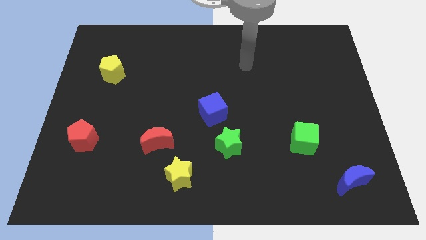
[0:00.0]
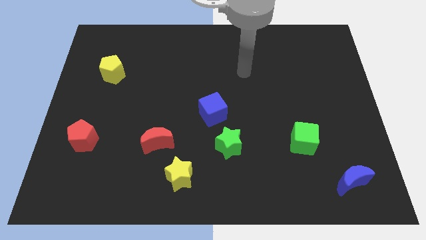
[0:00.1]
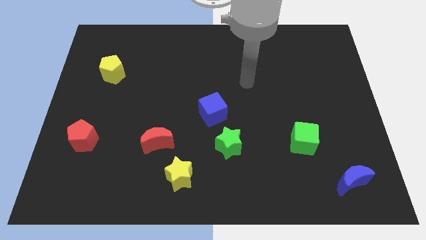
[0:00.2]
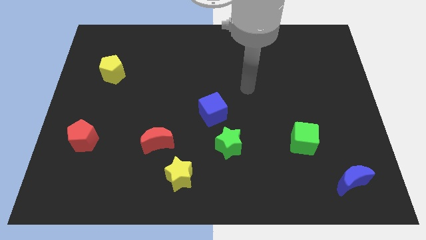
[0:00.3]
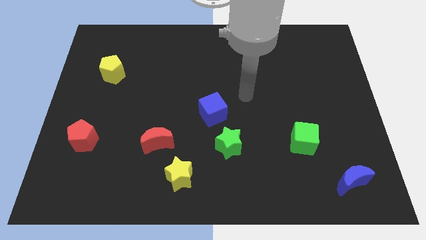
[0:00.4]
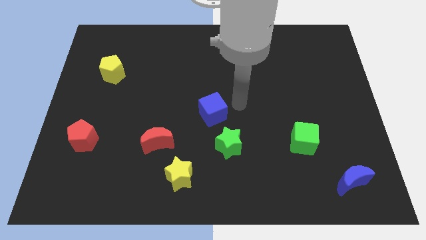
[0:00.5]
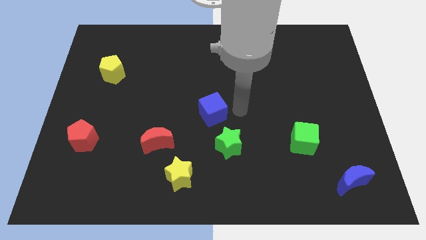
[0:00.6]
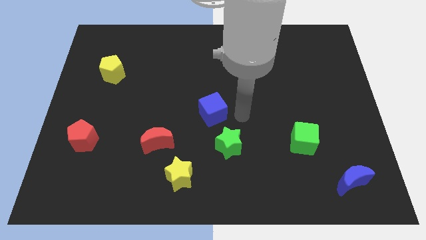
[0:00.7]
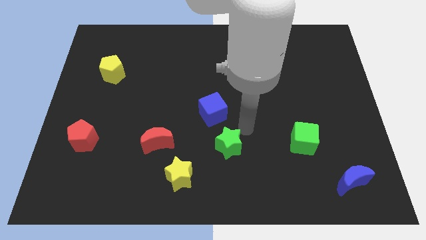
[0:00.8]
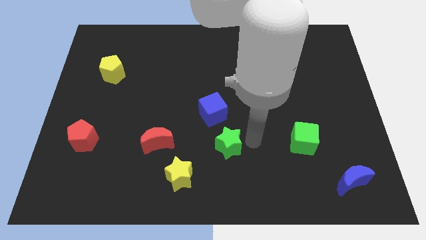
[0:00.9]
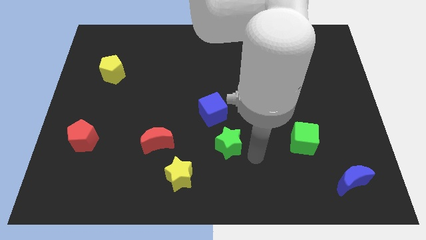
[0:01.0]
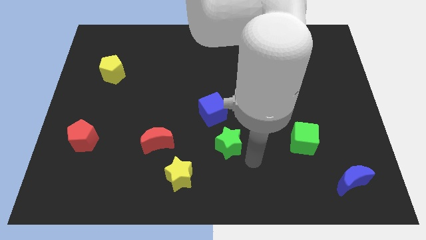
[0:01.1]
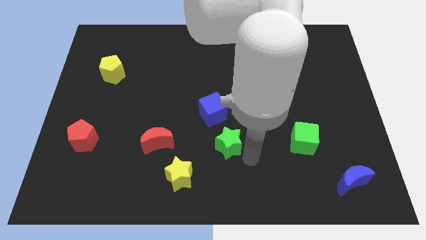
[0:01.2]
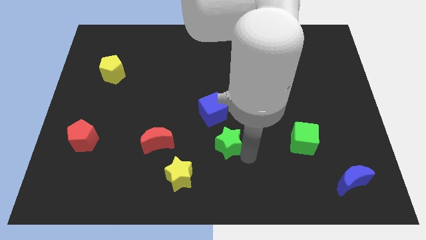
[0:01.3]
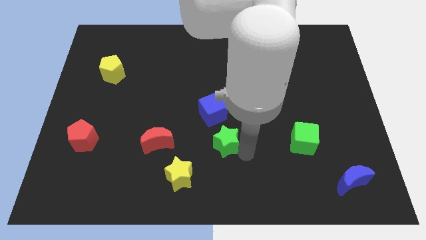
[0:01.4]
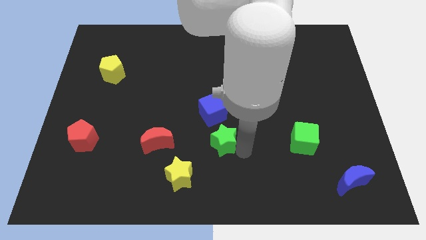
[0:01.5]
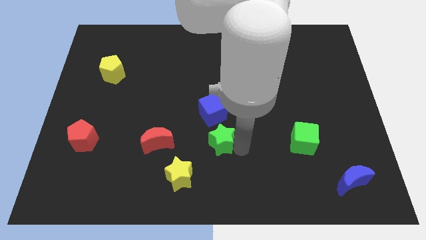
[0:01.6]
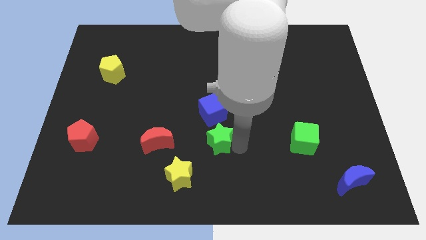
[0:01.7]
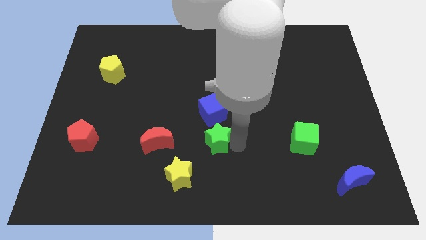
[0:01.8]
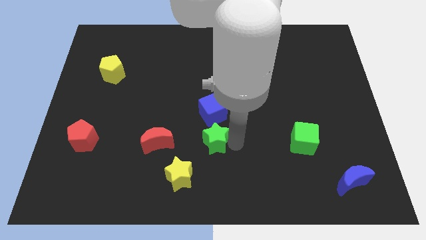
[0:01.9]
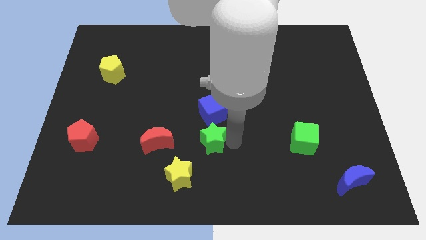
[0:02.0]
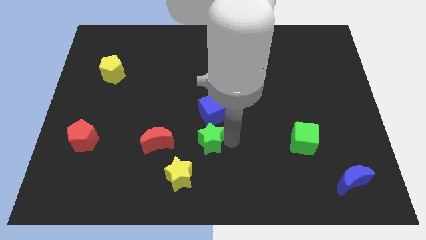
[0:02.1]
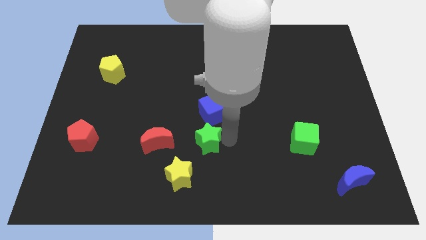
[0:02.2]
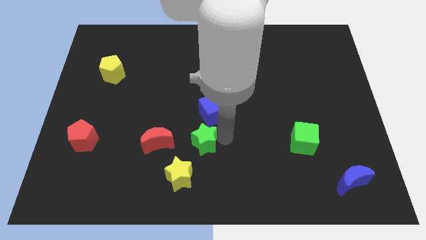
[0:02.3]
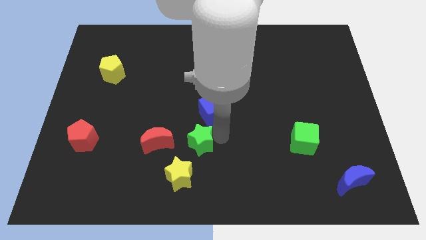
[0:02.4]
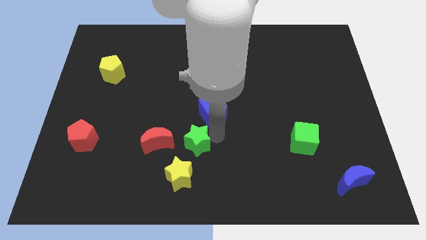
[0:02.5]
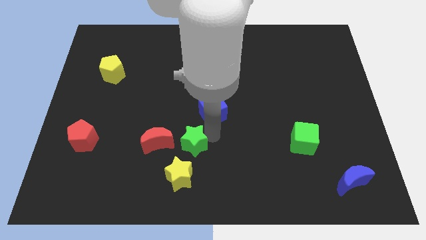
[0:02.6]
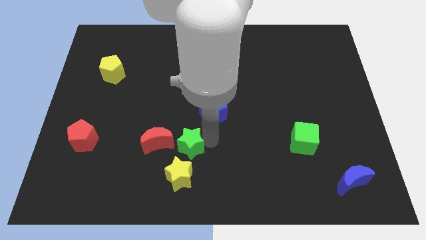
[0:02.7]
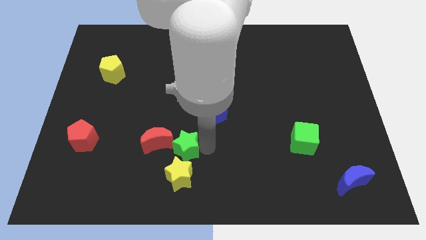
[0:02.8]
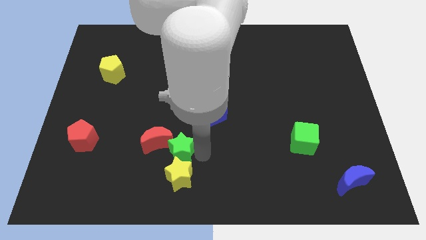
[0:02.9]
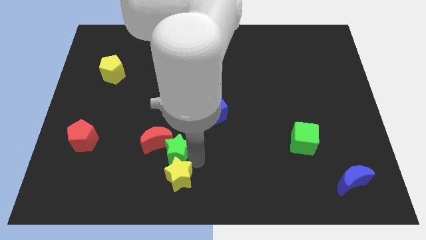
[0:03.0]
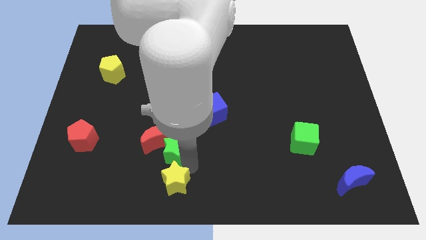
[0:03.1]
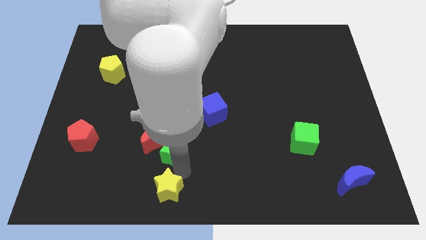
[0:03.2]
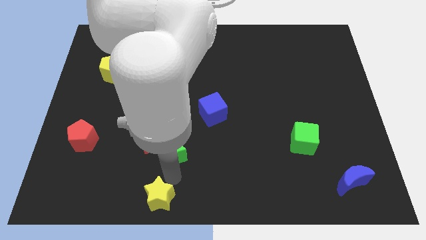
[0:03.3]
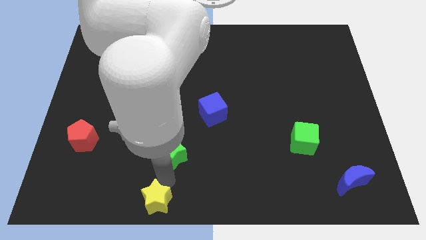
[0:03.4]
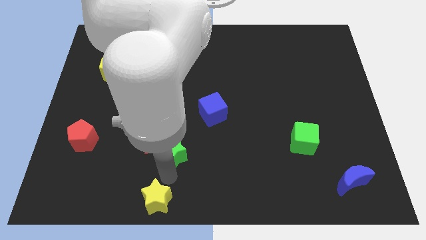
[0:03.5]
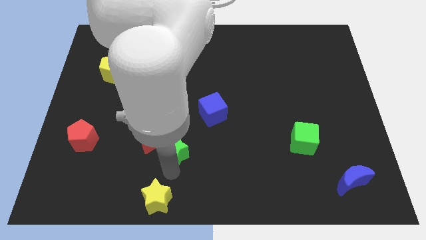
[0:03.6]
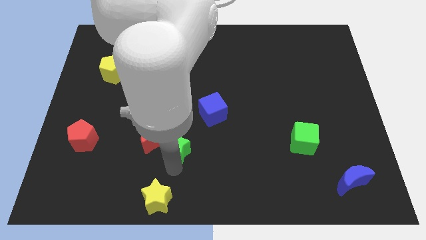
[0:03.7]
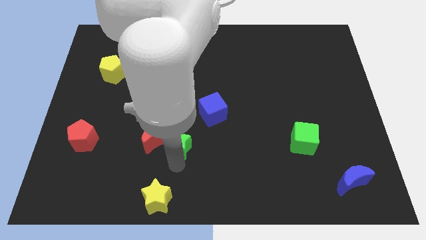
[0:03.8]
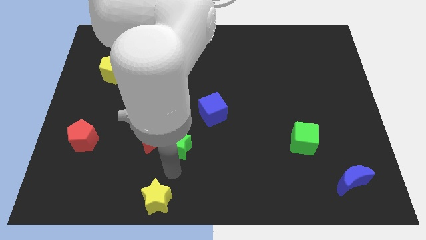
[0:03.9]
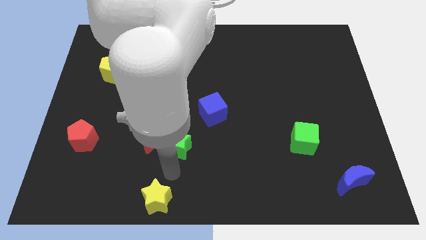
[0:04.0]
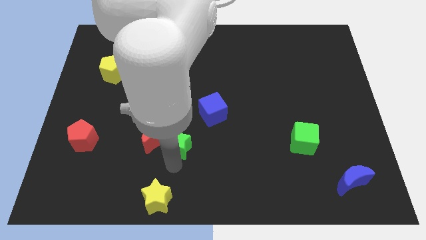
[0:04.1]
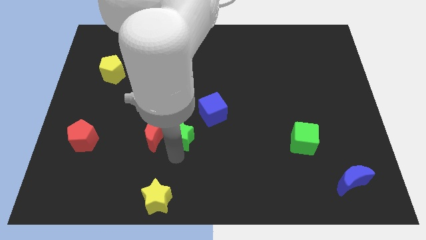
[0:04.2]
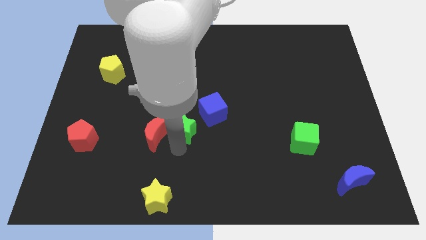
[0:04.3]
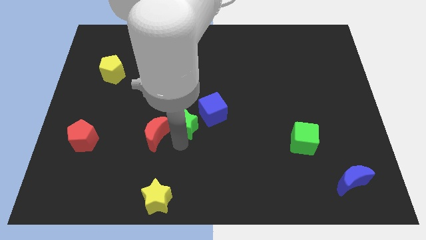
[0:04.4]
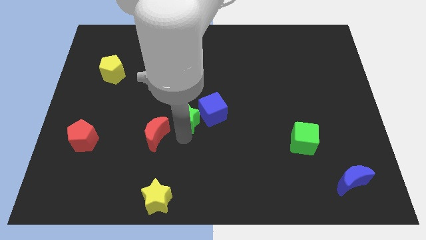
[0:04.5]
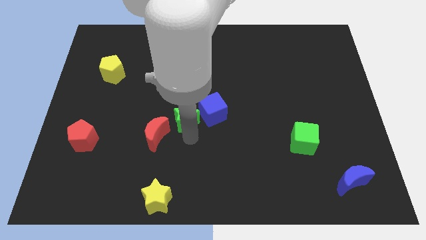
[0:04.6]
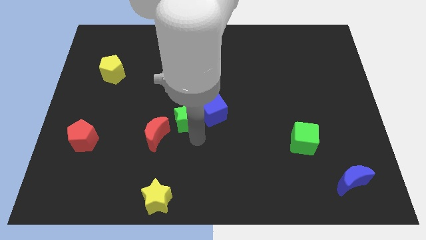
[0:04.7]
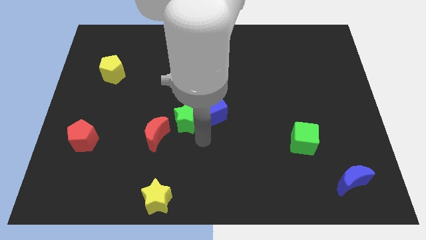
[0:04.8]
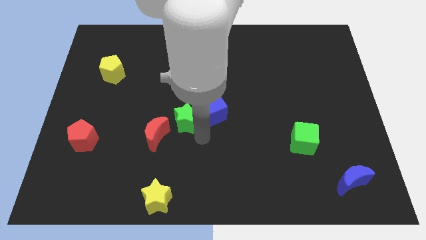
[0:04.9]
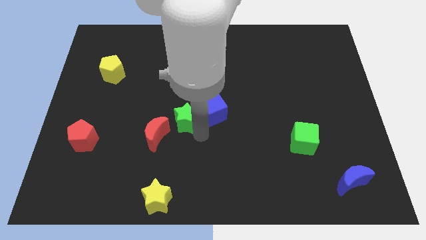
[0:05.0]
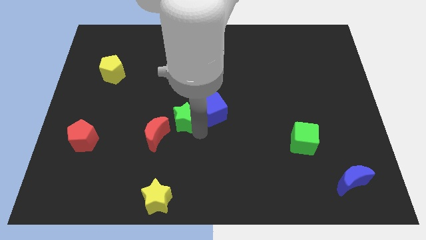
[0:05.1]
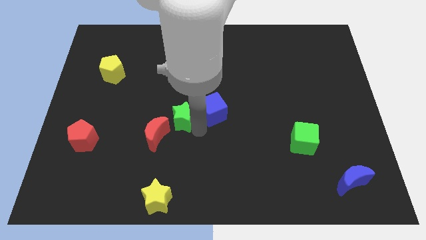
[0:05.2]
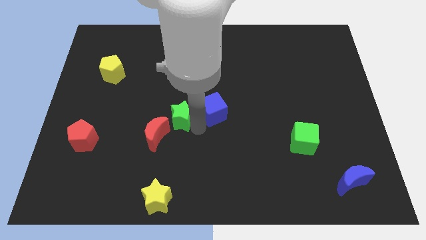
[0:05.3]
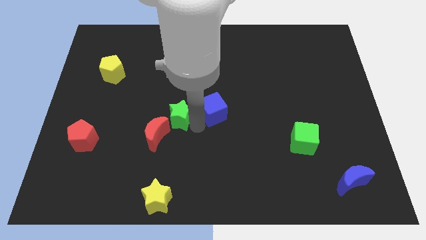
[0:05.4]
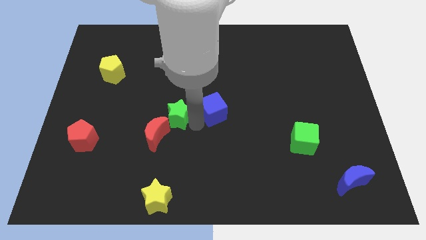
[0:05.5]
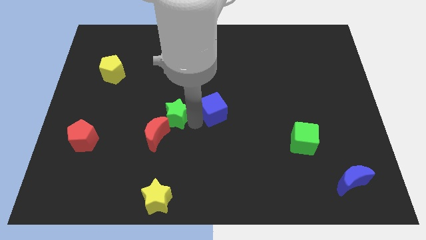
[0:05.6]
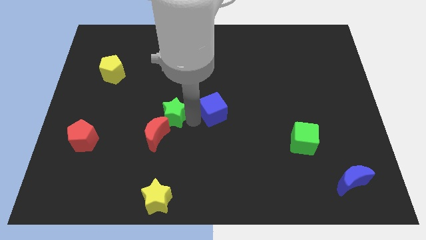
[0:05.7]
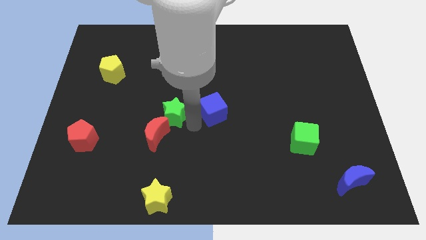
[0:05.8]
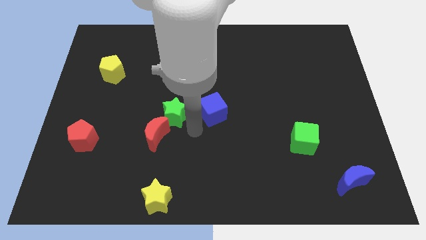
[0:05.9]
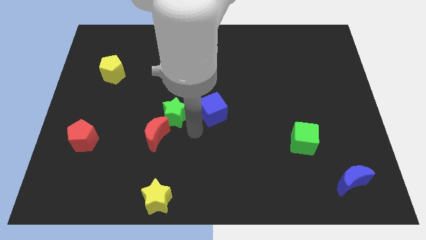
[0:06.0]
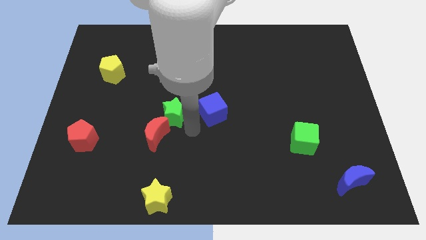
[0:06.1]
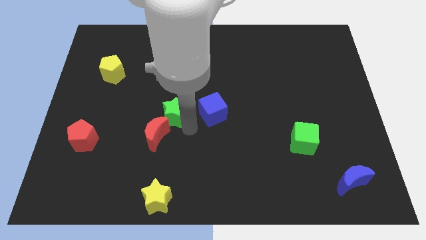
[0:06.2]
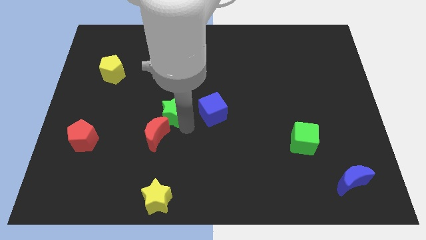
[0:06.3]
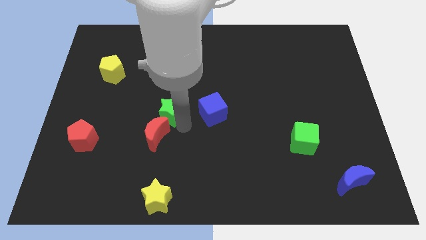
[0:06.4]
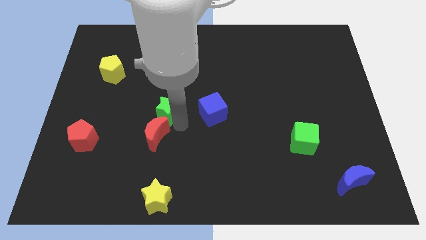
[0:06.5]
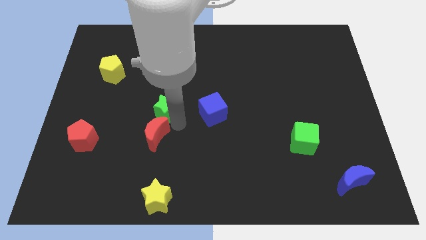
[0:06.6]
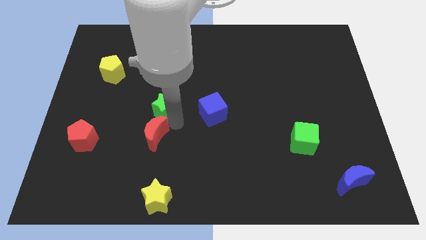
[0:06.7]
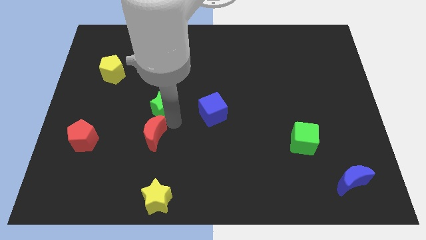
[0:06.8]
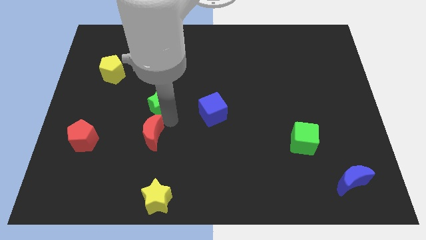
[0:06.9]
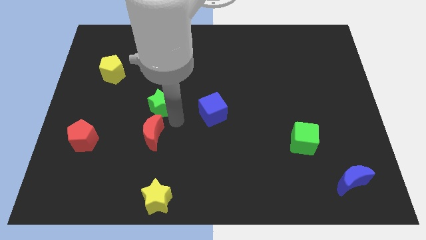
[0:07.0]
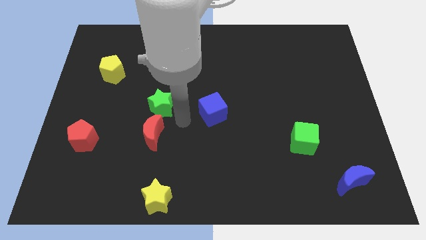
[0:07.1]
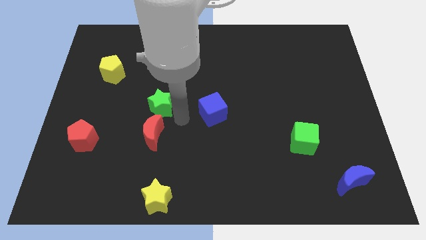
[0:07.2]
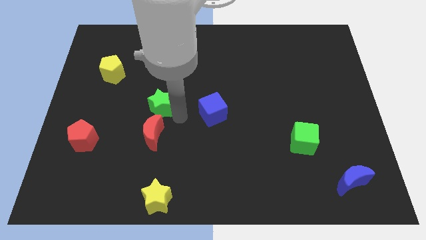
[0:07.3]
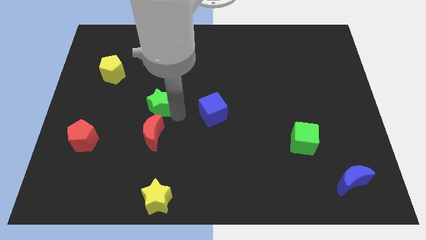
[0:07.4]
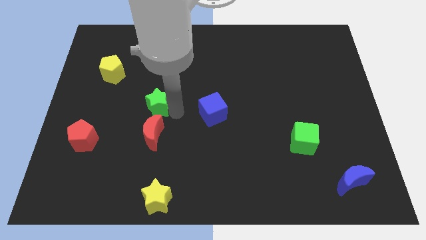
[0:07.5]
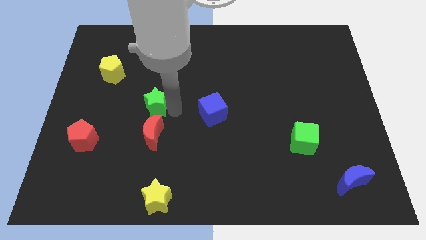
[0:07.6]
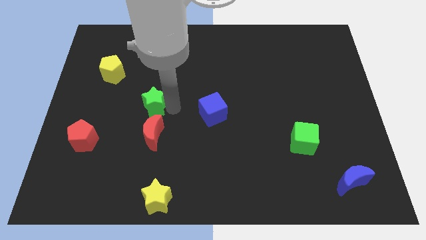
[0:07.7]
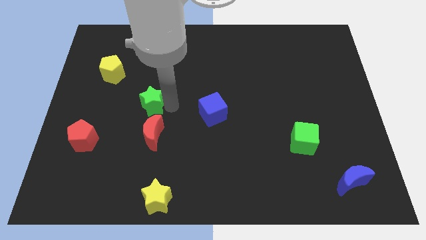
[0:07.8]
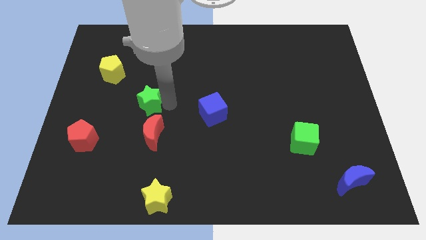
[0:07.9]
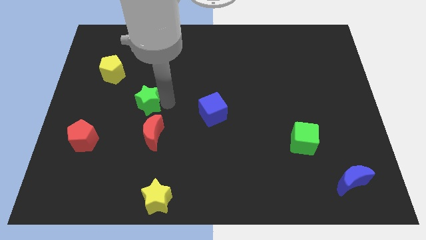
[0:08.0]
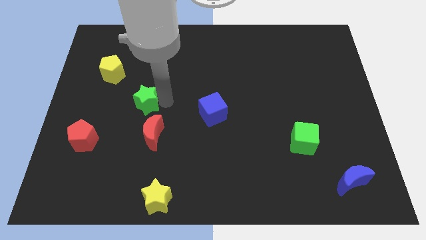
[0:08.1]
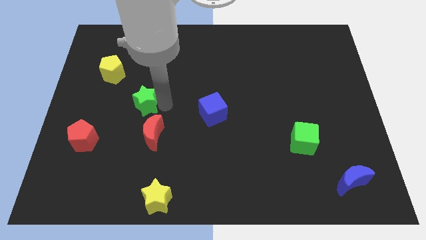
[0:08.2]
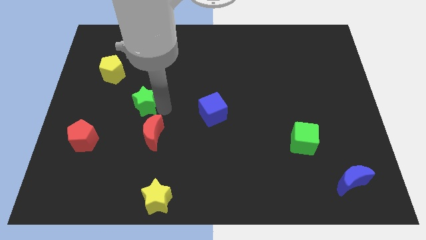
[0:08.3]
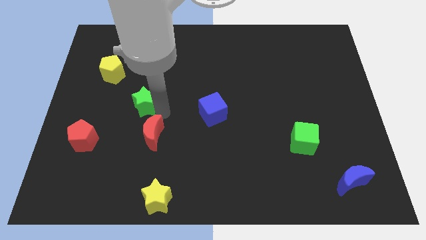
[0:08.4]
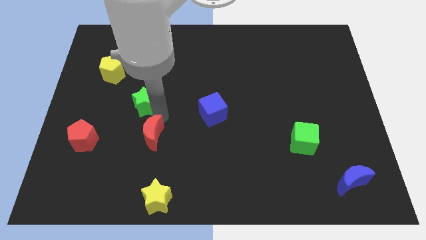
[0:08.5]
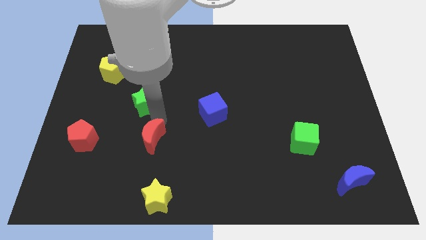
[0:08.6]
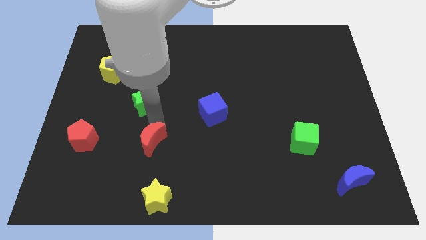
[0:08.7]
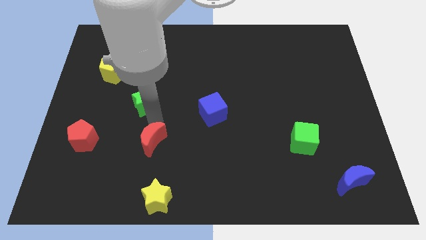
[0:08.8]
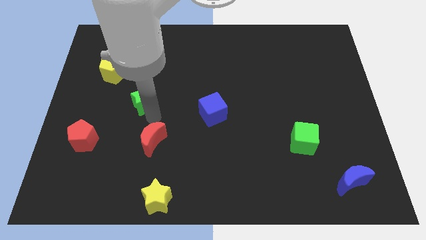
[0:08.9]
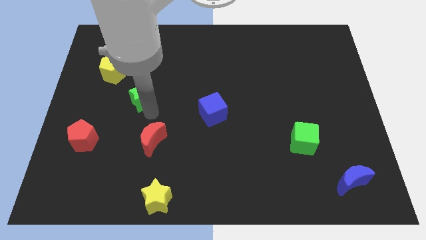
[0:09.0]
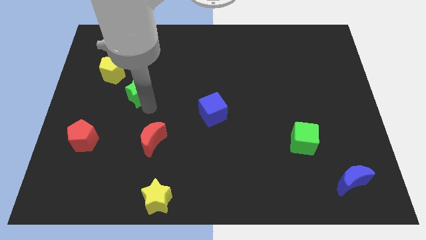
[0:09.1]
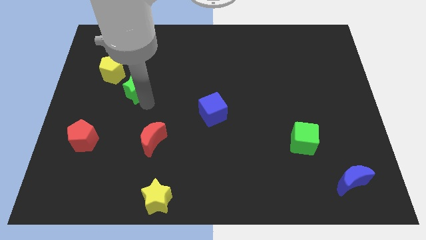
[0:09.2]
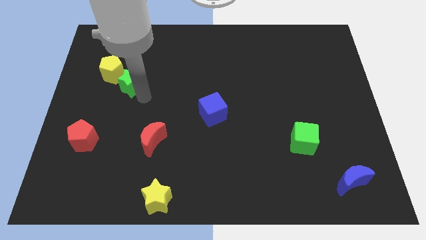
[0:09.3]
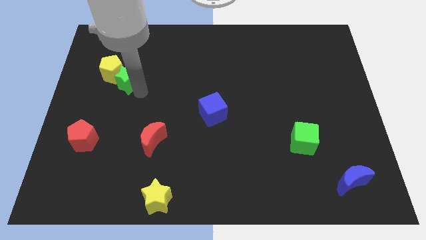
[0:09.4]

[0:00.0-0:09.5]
move the green star close to the yellow pentagon
